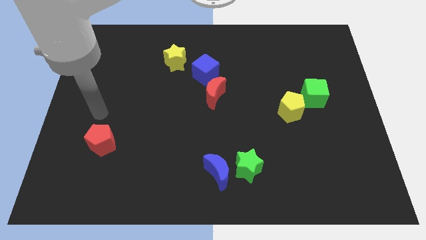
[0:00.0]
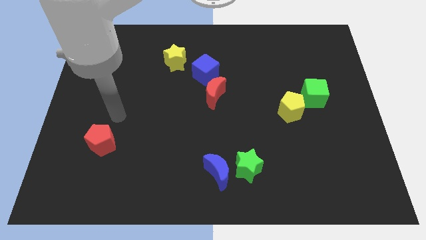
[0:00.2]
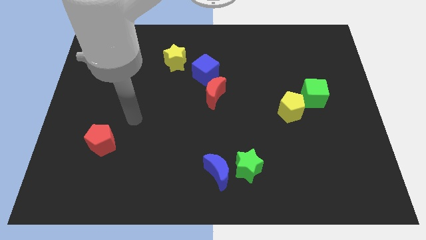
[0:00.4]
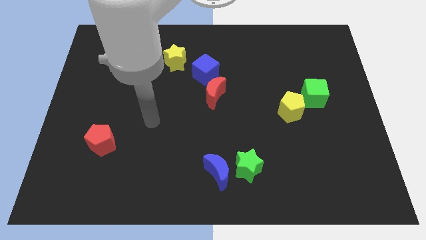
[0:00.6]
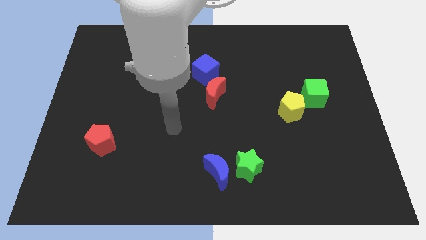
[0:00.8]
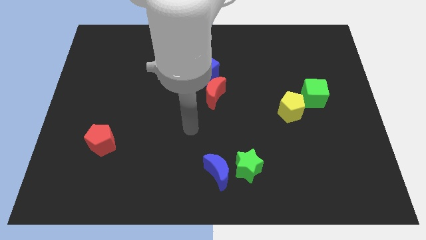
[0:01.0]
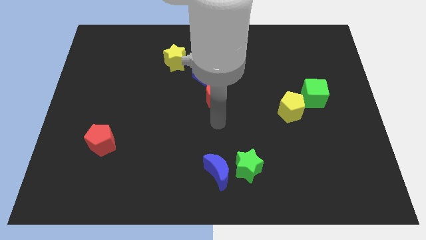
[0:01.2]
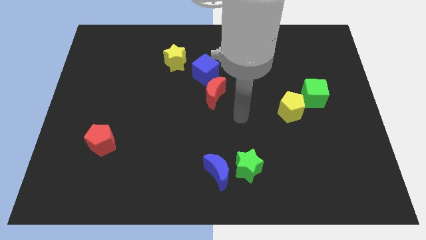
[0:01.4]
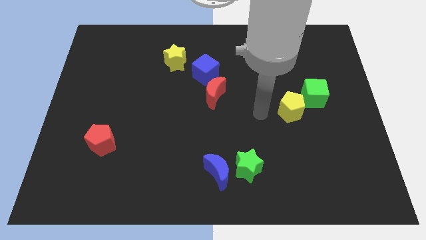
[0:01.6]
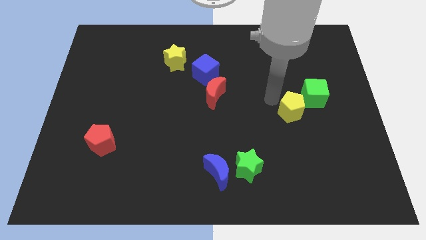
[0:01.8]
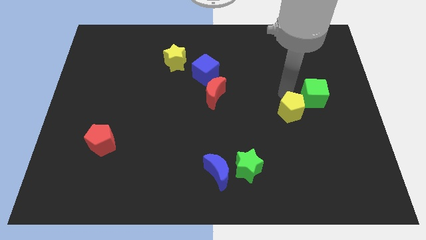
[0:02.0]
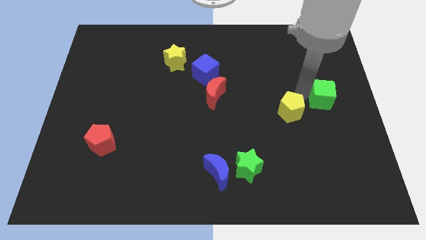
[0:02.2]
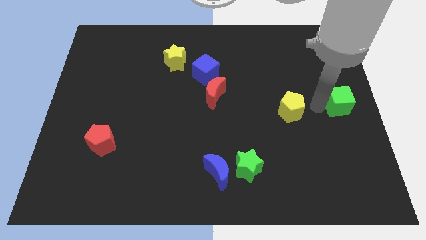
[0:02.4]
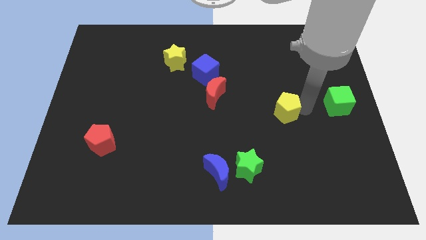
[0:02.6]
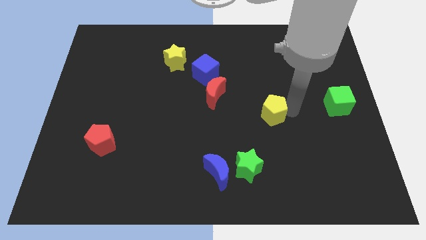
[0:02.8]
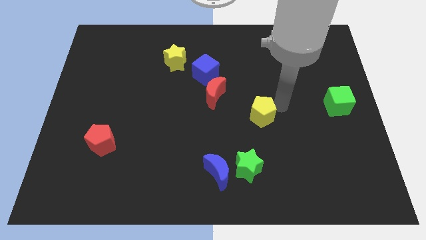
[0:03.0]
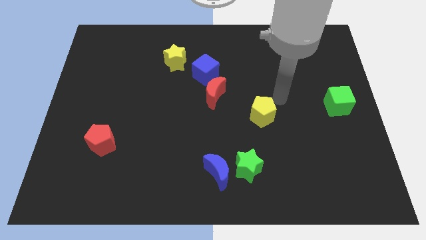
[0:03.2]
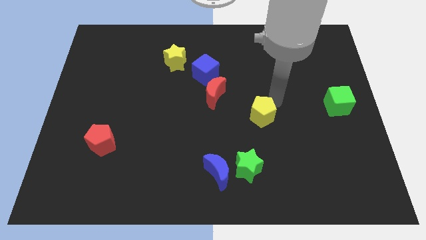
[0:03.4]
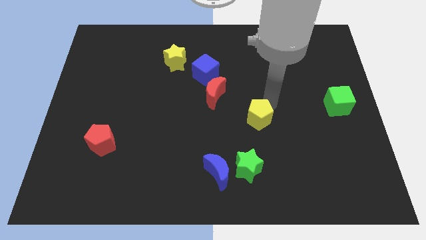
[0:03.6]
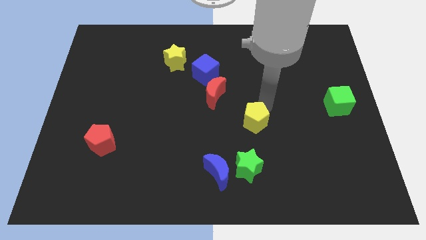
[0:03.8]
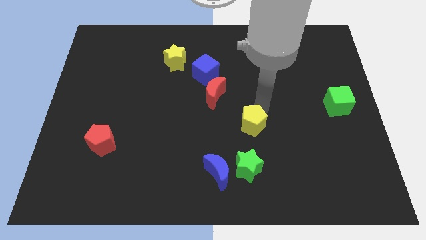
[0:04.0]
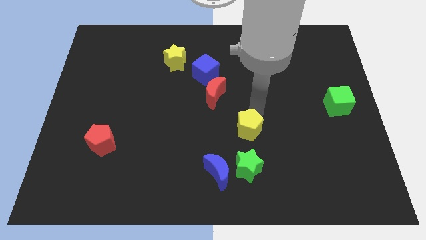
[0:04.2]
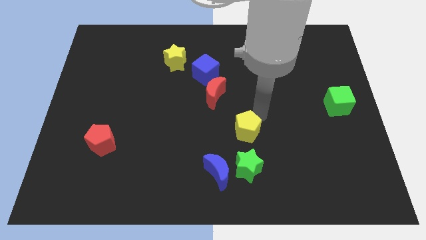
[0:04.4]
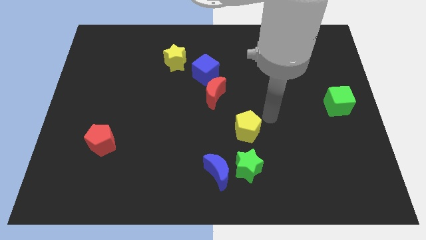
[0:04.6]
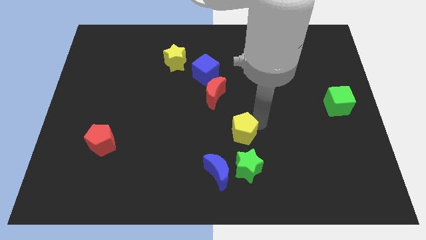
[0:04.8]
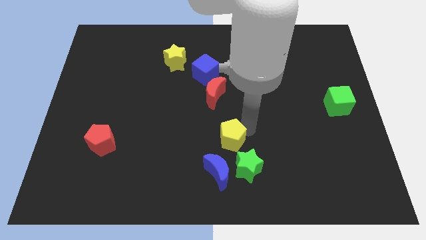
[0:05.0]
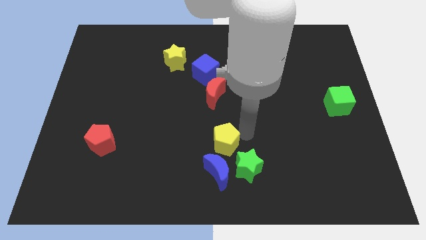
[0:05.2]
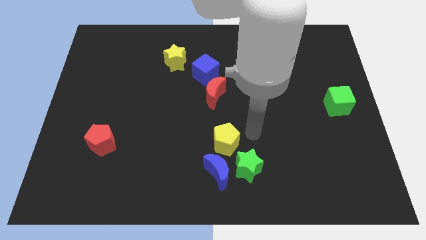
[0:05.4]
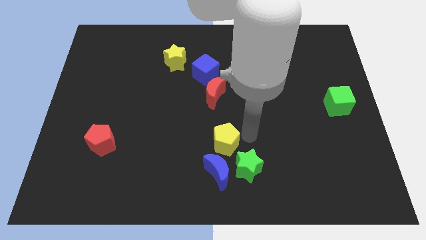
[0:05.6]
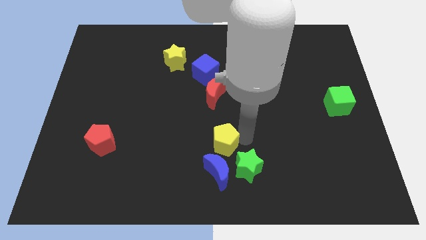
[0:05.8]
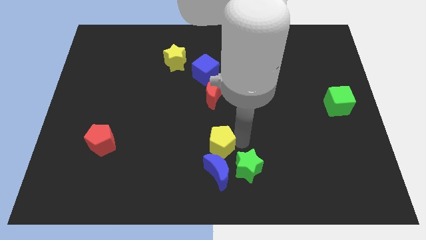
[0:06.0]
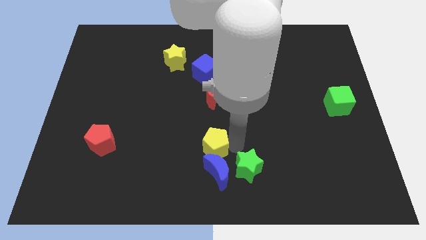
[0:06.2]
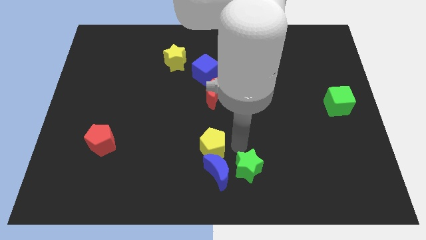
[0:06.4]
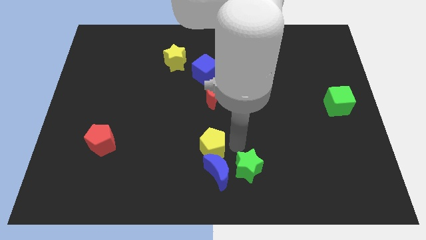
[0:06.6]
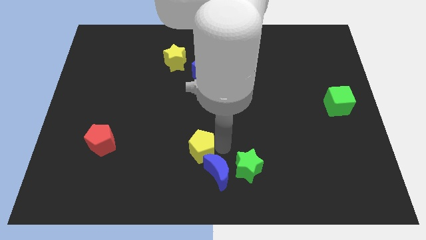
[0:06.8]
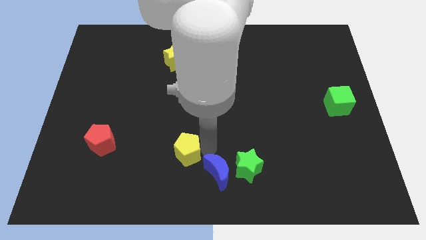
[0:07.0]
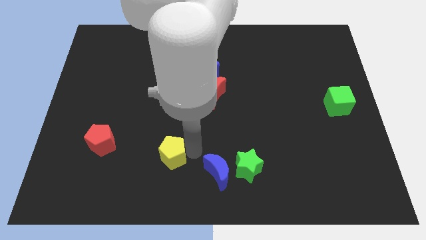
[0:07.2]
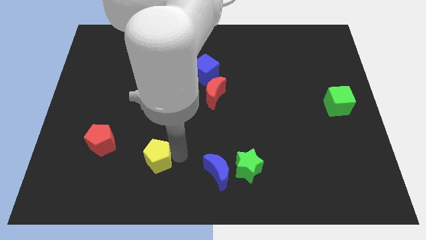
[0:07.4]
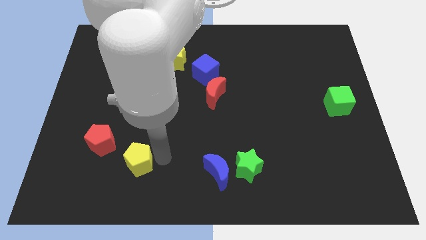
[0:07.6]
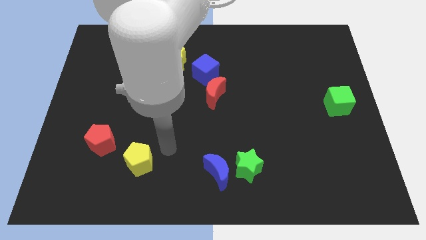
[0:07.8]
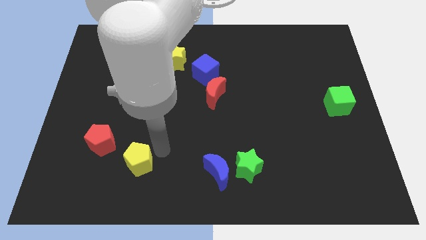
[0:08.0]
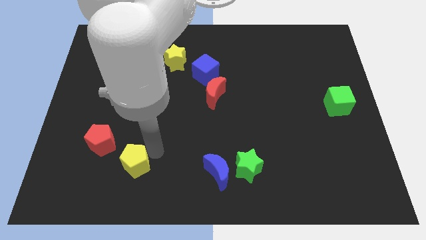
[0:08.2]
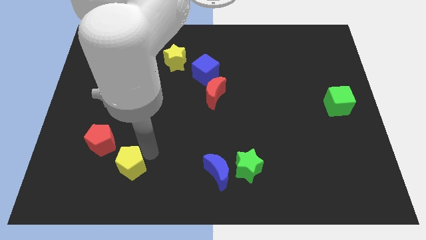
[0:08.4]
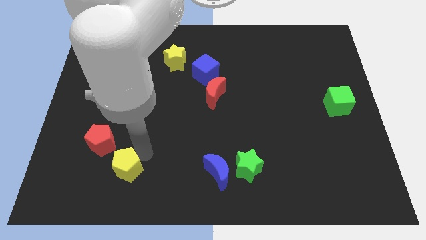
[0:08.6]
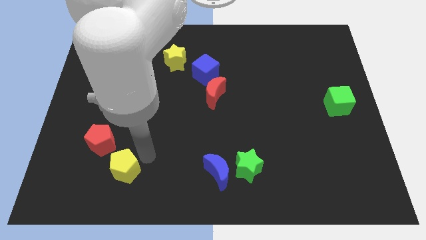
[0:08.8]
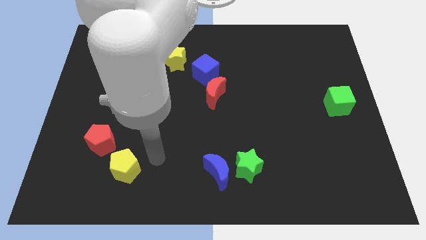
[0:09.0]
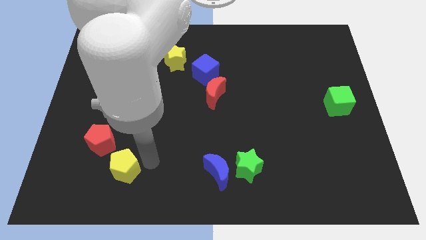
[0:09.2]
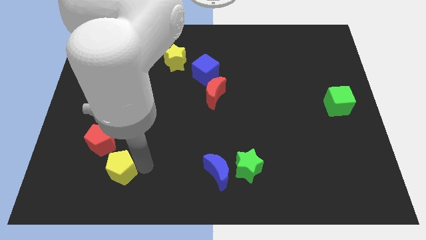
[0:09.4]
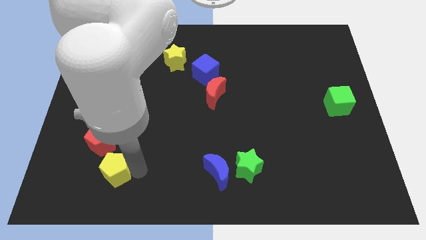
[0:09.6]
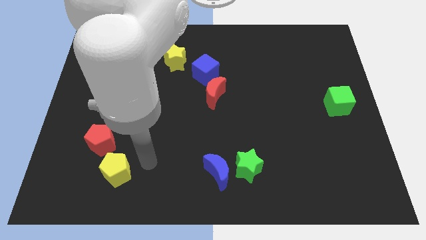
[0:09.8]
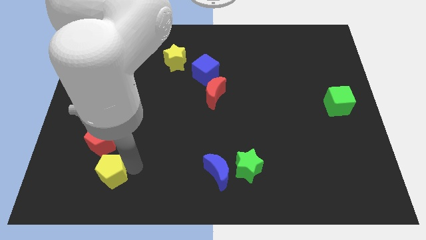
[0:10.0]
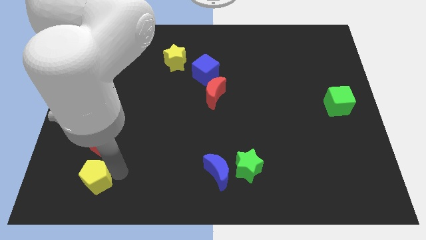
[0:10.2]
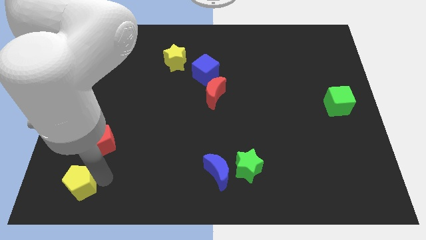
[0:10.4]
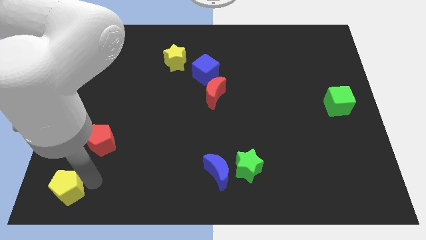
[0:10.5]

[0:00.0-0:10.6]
move the yellow pentagon to the lower left corner

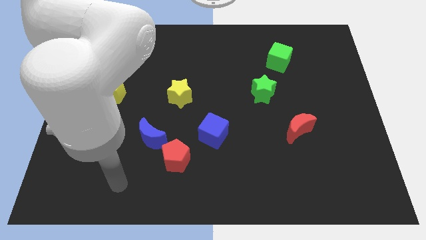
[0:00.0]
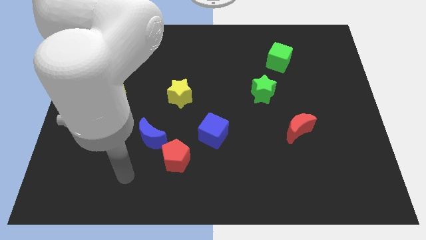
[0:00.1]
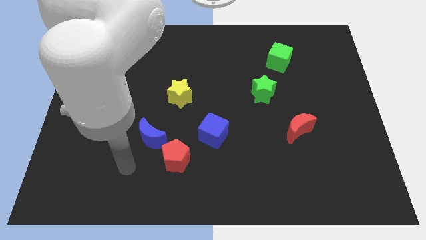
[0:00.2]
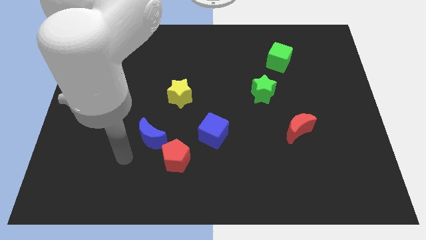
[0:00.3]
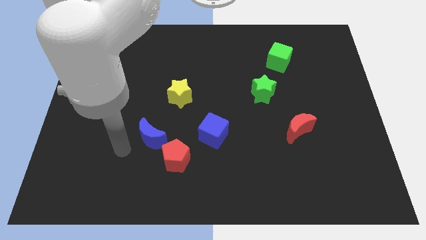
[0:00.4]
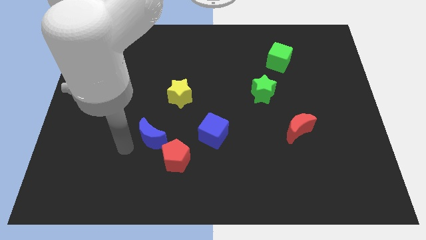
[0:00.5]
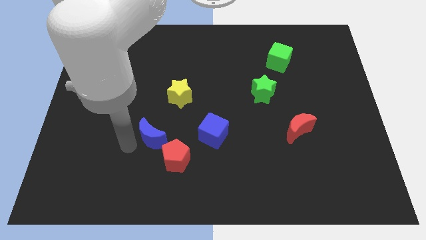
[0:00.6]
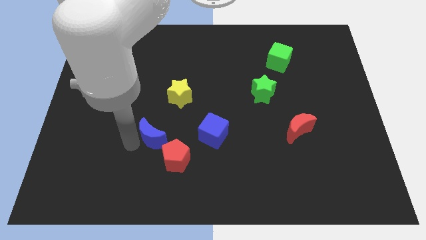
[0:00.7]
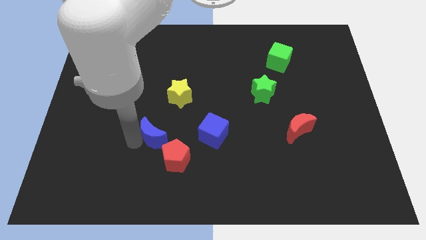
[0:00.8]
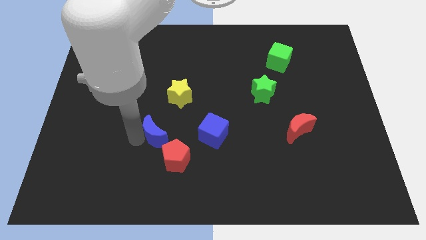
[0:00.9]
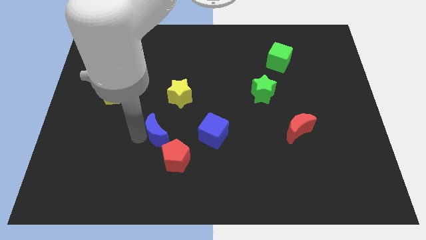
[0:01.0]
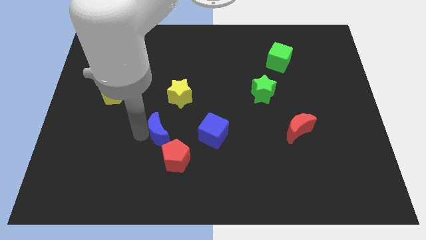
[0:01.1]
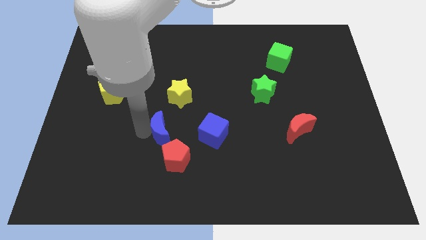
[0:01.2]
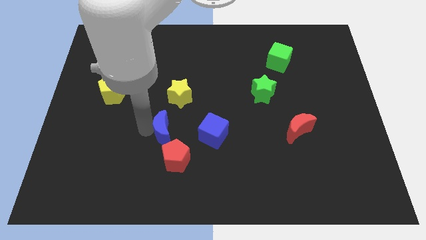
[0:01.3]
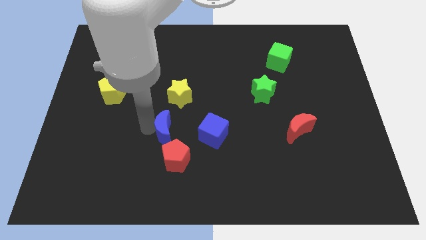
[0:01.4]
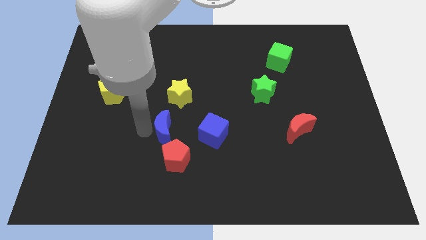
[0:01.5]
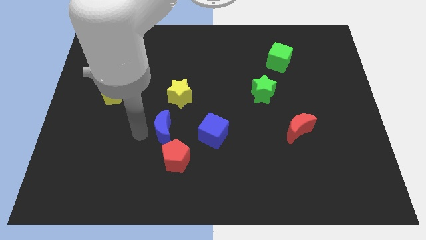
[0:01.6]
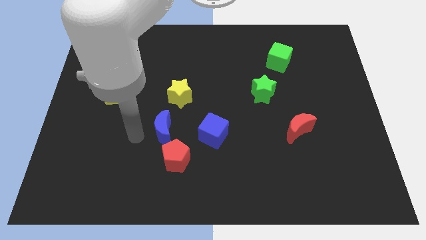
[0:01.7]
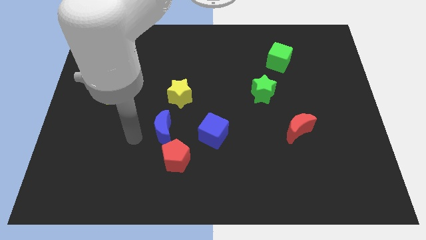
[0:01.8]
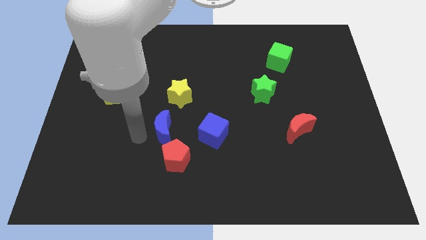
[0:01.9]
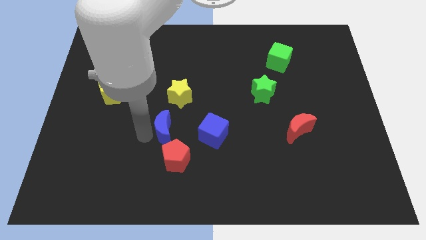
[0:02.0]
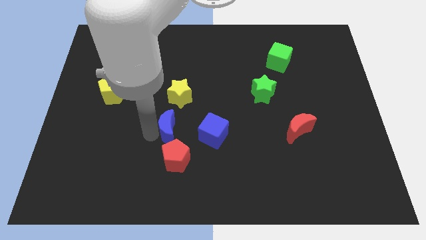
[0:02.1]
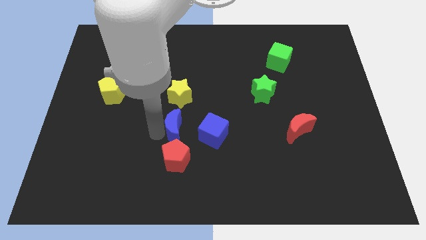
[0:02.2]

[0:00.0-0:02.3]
slide the blue moon to the middle of the board
